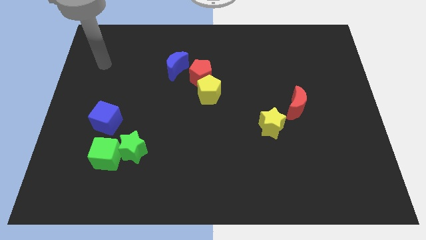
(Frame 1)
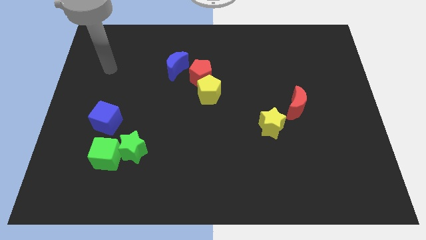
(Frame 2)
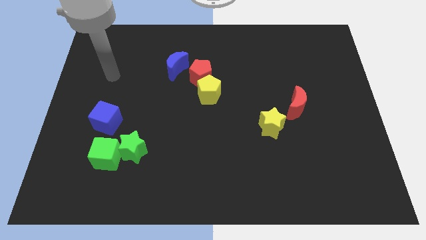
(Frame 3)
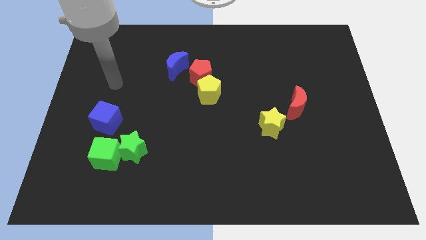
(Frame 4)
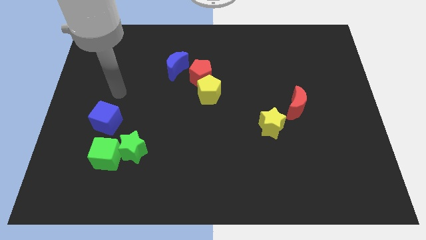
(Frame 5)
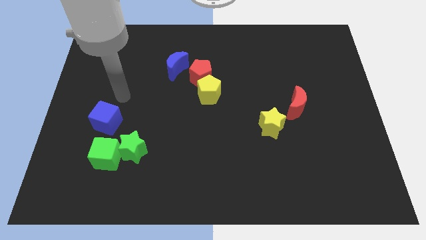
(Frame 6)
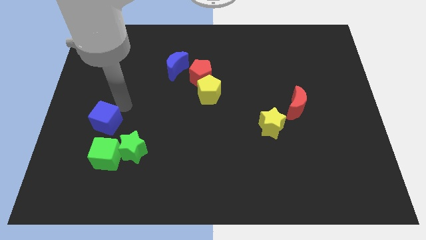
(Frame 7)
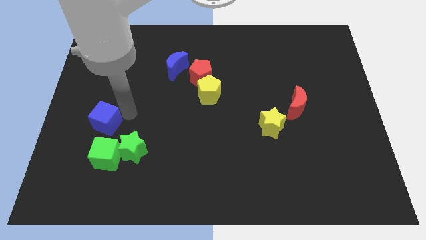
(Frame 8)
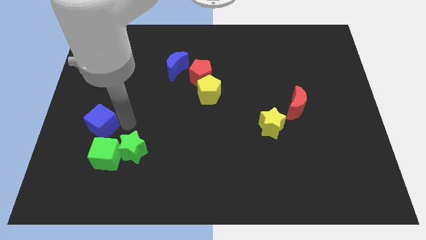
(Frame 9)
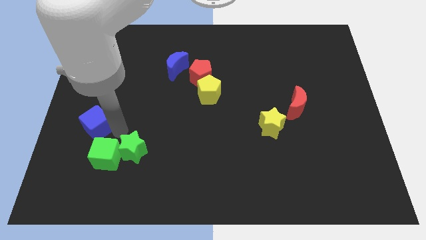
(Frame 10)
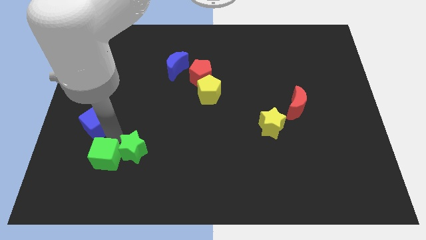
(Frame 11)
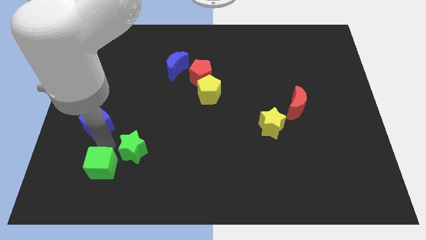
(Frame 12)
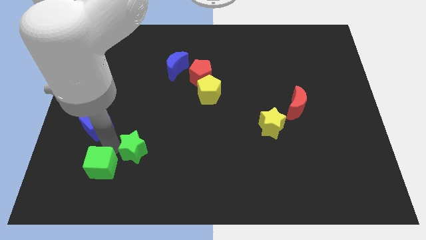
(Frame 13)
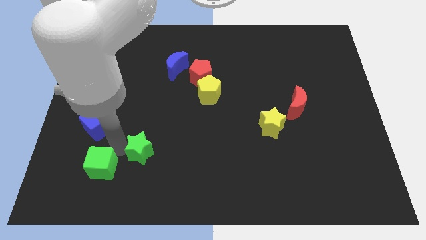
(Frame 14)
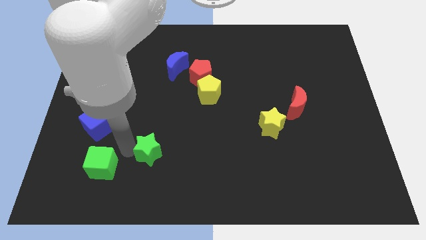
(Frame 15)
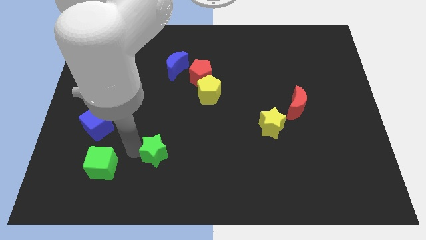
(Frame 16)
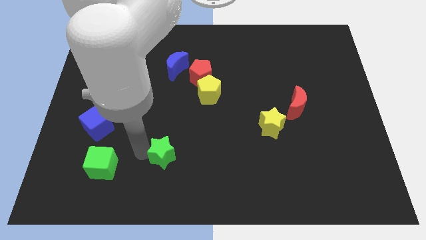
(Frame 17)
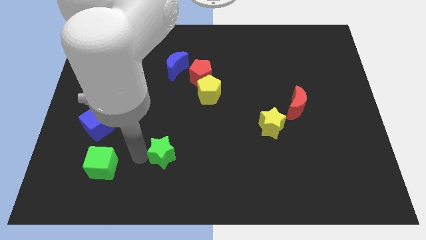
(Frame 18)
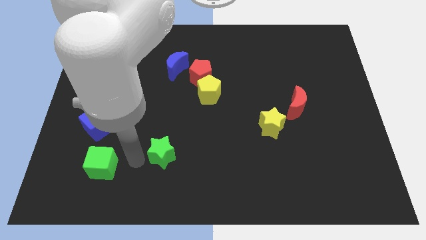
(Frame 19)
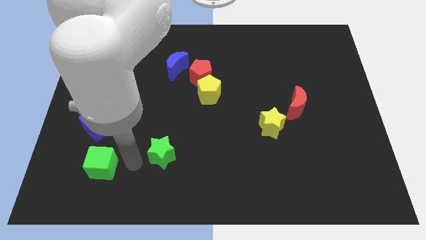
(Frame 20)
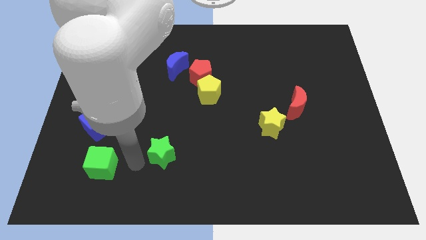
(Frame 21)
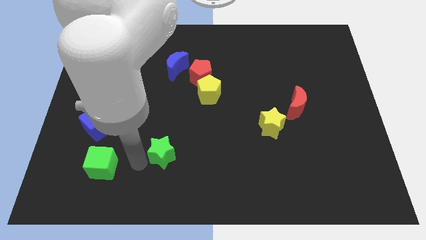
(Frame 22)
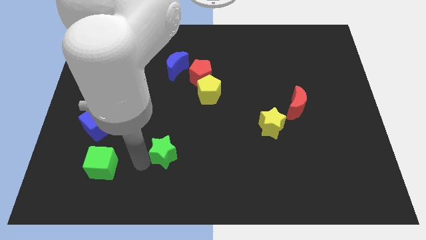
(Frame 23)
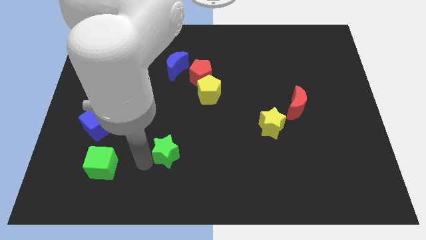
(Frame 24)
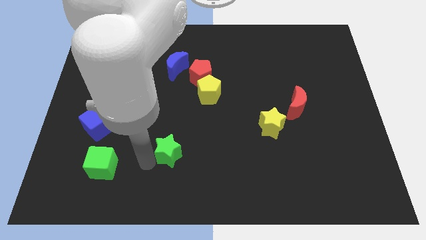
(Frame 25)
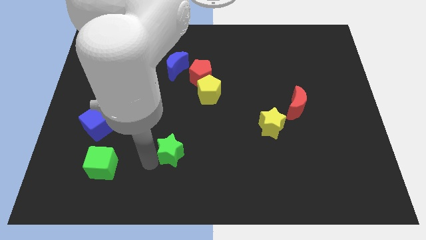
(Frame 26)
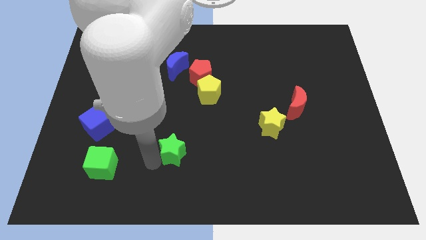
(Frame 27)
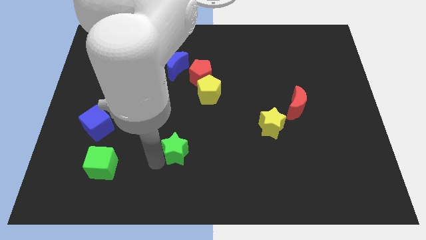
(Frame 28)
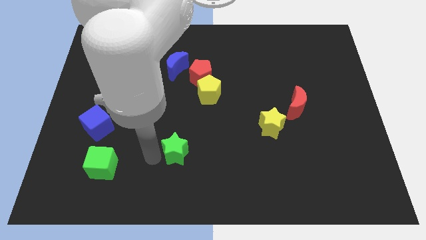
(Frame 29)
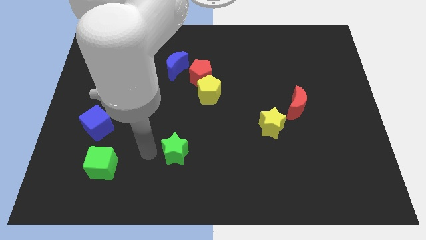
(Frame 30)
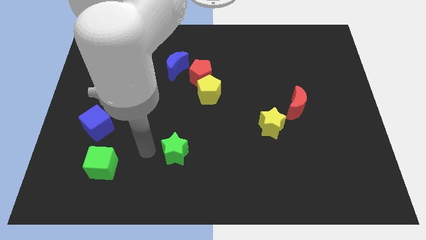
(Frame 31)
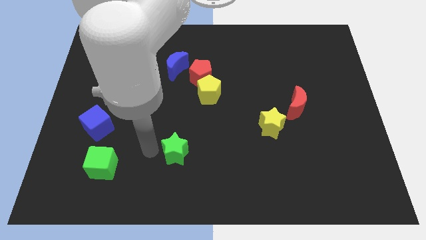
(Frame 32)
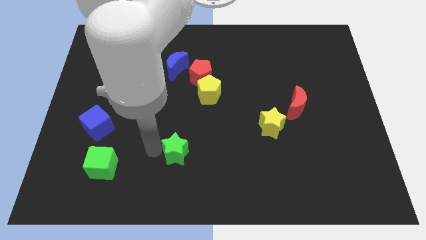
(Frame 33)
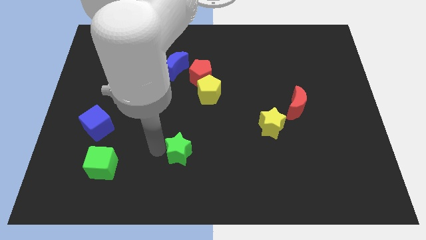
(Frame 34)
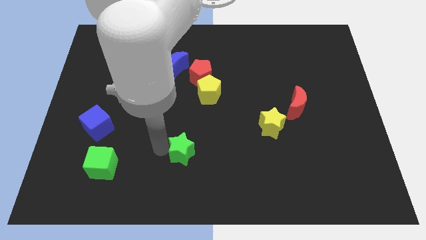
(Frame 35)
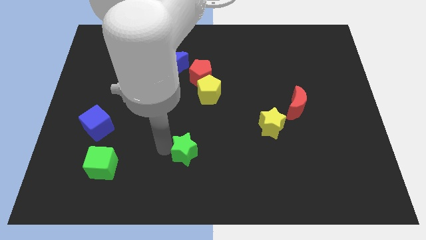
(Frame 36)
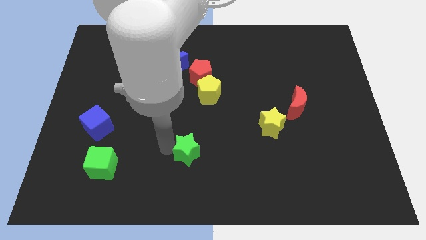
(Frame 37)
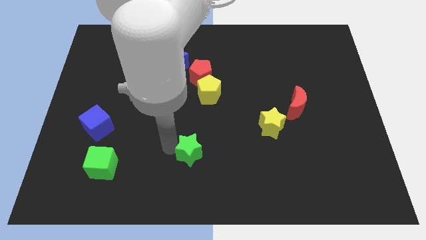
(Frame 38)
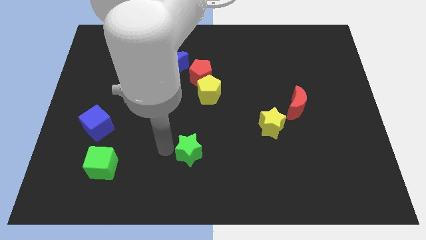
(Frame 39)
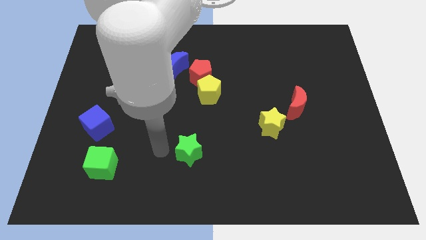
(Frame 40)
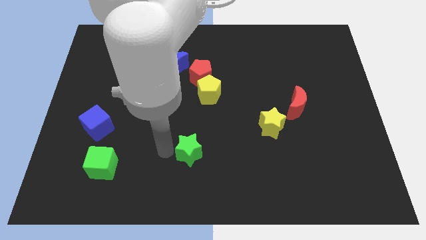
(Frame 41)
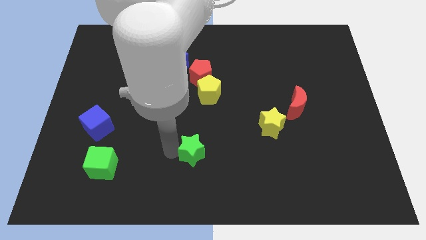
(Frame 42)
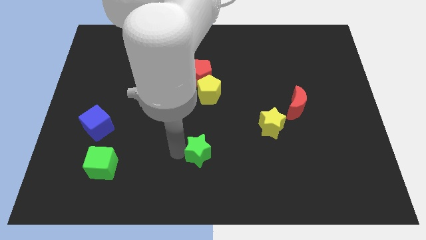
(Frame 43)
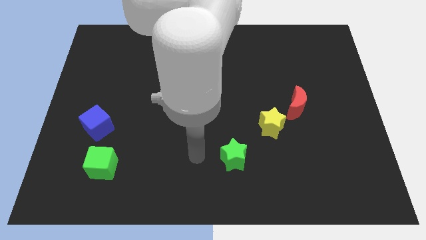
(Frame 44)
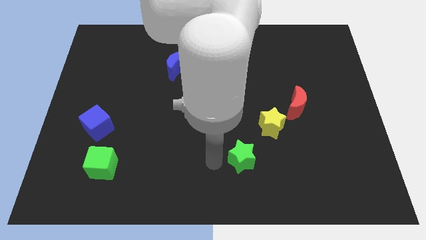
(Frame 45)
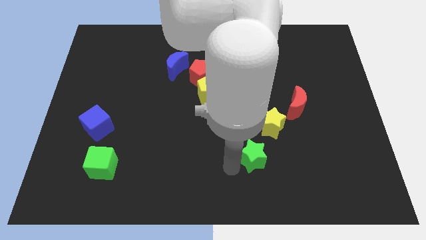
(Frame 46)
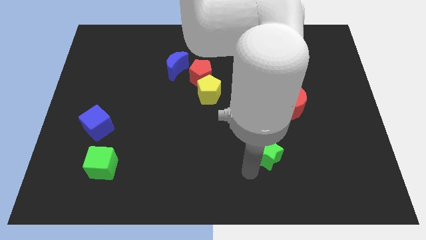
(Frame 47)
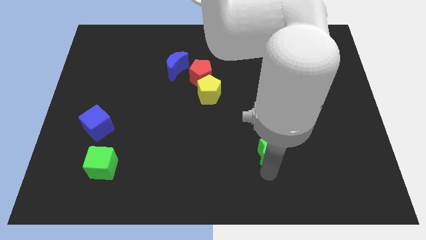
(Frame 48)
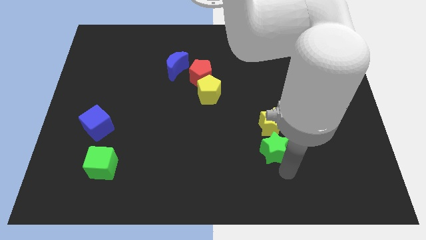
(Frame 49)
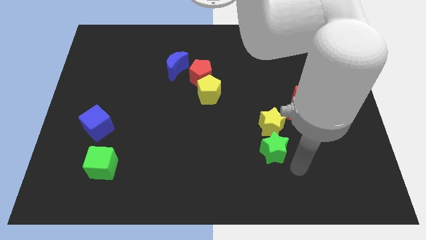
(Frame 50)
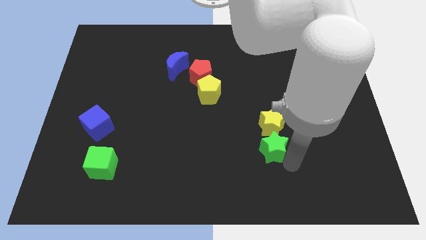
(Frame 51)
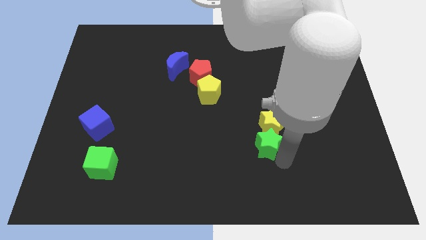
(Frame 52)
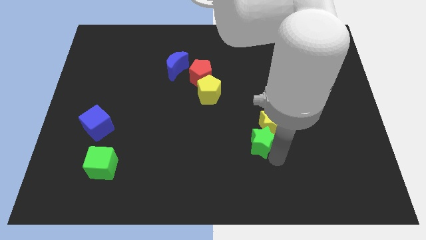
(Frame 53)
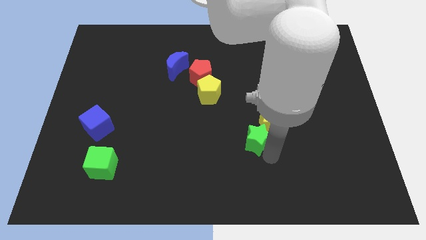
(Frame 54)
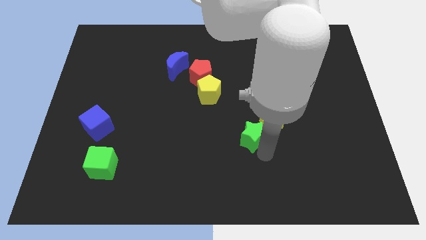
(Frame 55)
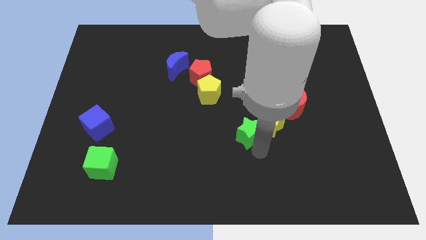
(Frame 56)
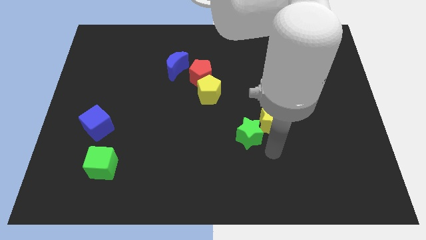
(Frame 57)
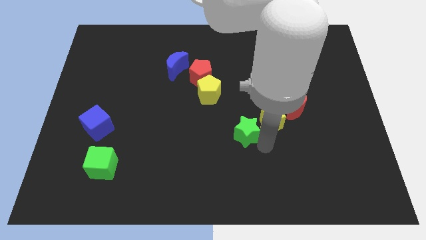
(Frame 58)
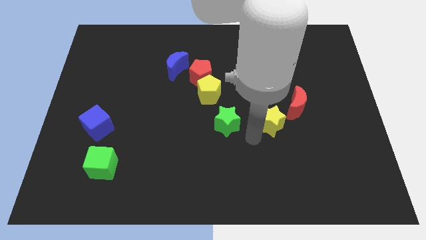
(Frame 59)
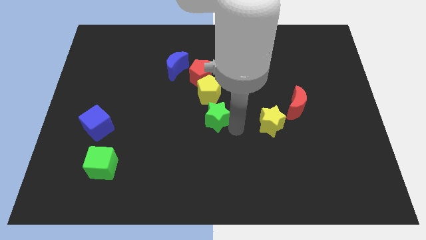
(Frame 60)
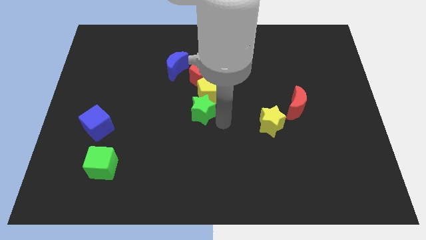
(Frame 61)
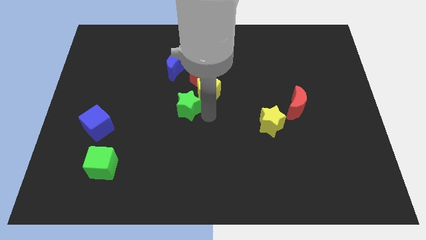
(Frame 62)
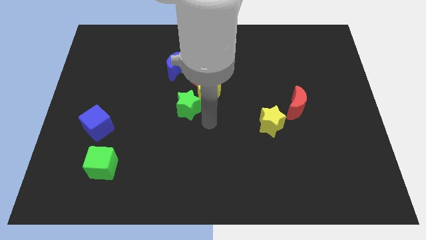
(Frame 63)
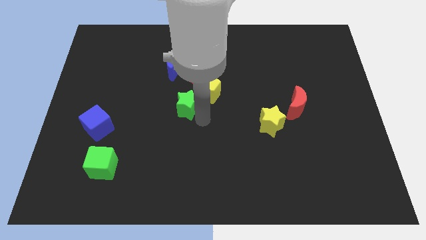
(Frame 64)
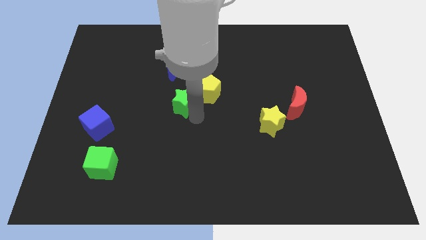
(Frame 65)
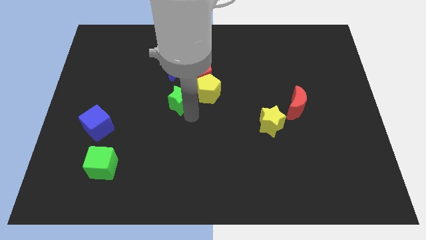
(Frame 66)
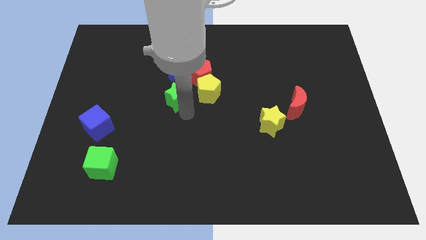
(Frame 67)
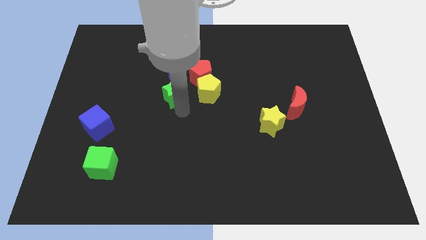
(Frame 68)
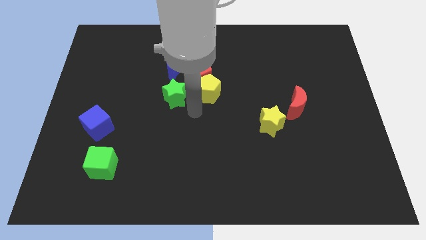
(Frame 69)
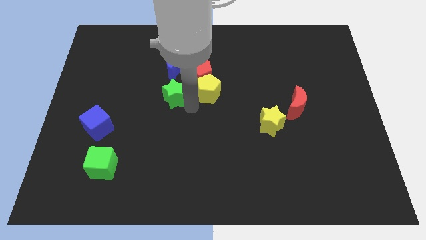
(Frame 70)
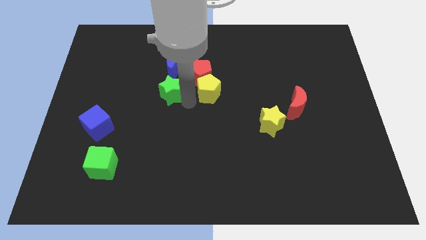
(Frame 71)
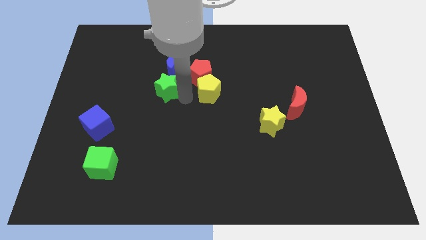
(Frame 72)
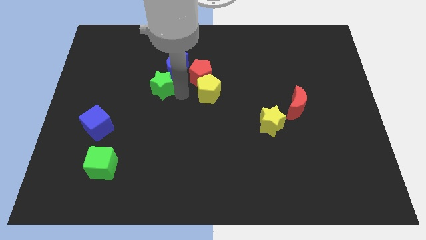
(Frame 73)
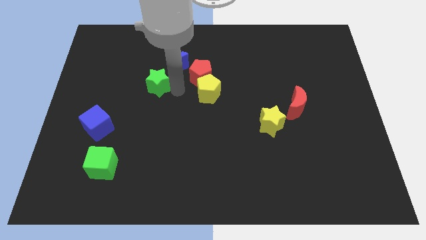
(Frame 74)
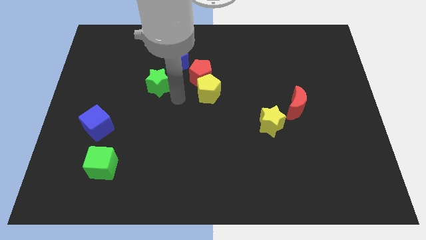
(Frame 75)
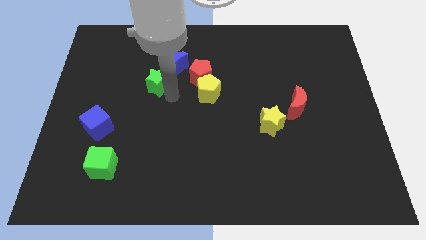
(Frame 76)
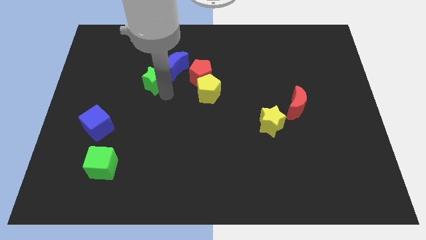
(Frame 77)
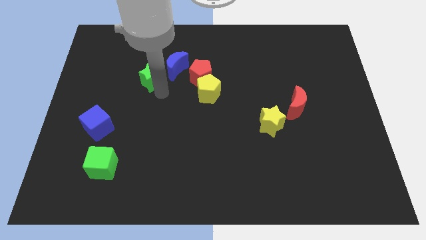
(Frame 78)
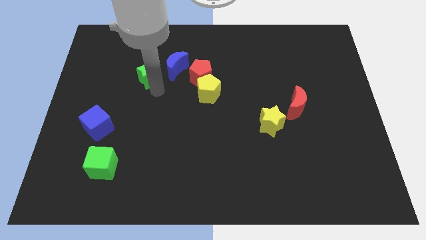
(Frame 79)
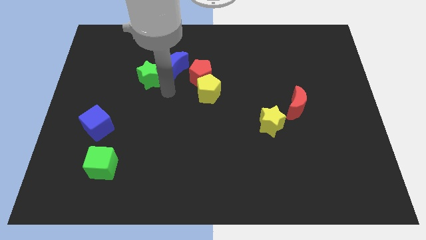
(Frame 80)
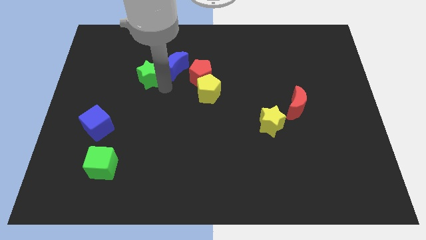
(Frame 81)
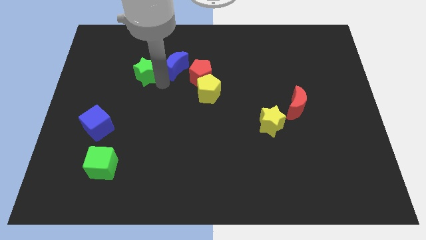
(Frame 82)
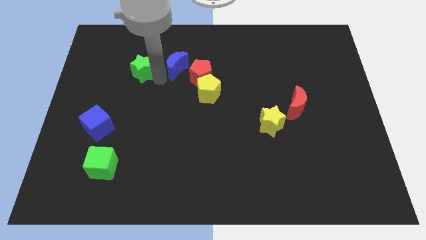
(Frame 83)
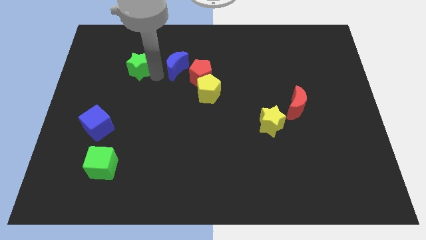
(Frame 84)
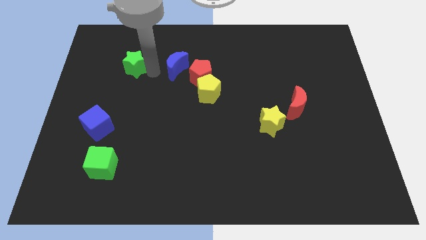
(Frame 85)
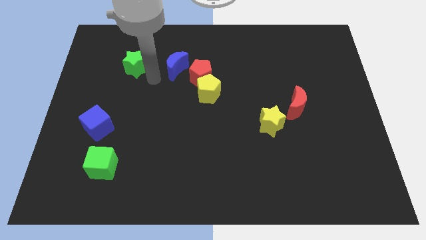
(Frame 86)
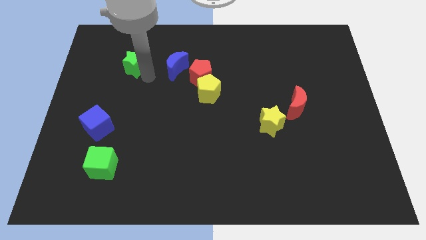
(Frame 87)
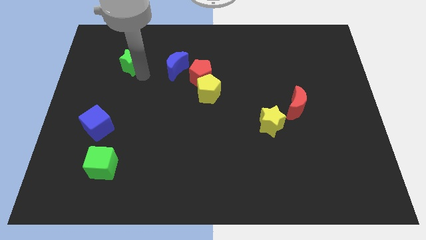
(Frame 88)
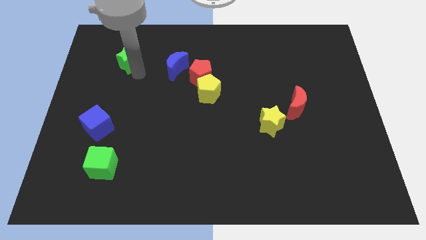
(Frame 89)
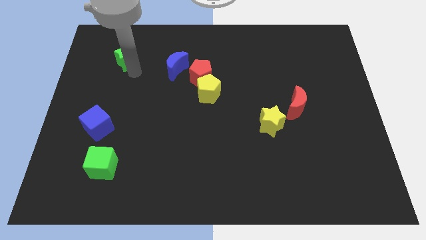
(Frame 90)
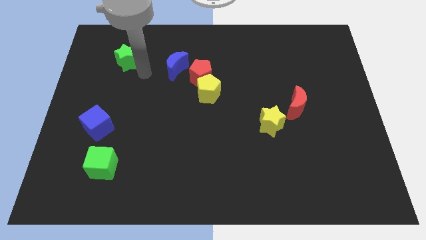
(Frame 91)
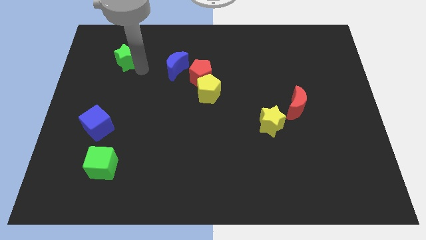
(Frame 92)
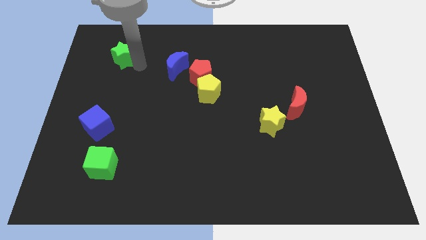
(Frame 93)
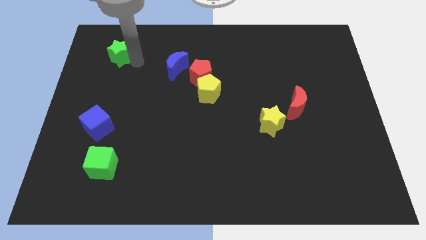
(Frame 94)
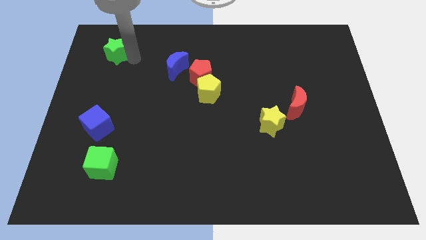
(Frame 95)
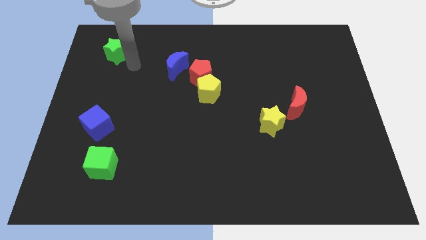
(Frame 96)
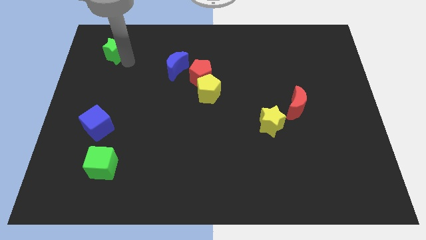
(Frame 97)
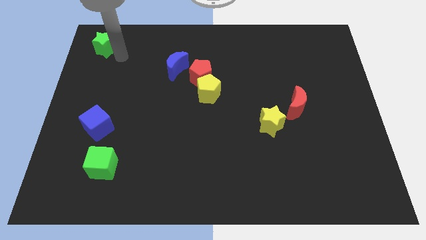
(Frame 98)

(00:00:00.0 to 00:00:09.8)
push the green star to the upper left corner
